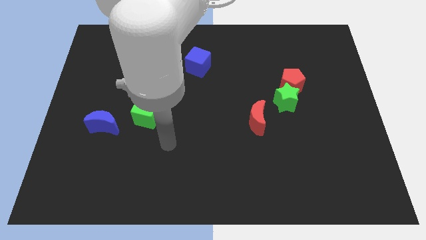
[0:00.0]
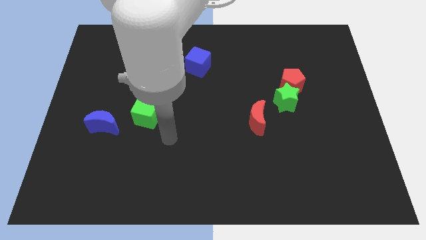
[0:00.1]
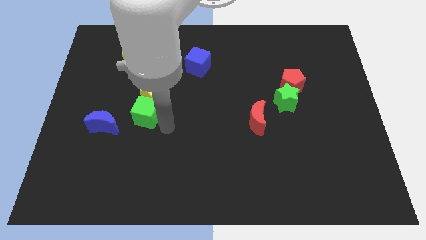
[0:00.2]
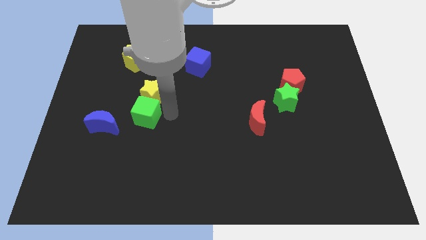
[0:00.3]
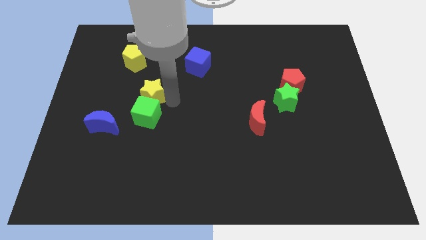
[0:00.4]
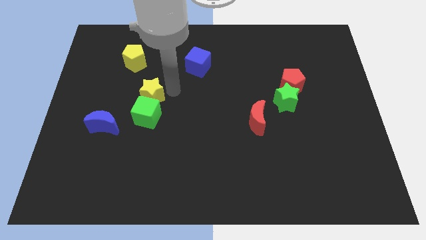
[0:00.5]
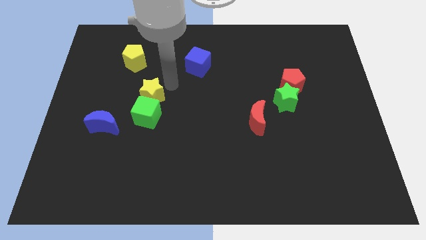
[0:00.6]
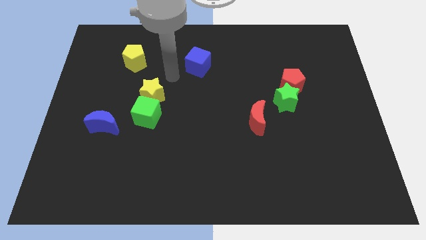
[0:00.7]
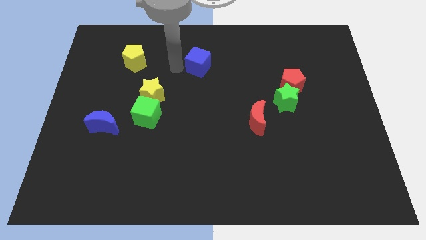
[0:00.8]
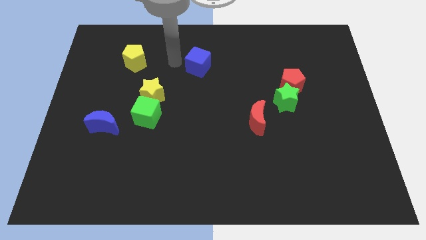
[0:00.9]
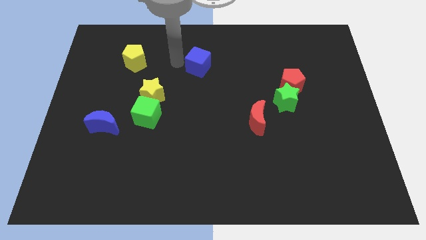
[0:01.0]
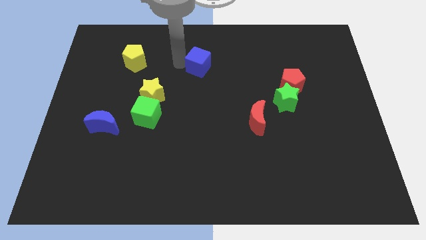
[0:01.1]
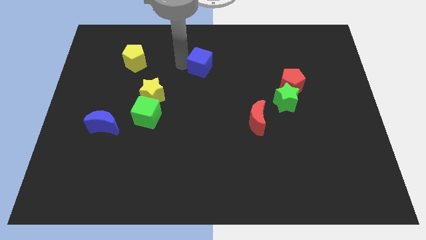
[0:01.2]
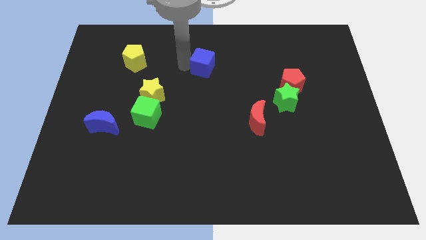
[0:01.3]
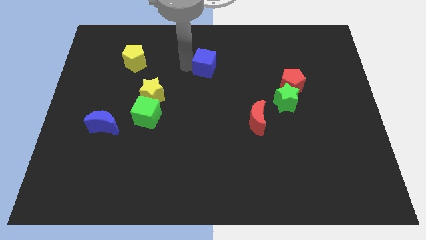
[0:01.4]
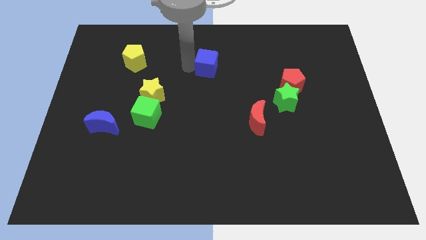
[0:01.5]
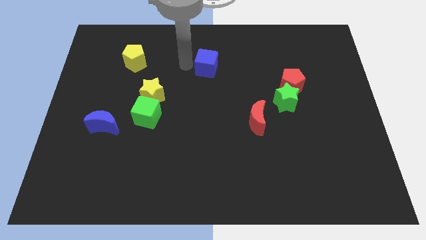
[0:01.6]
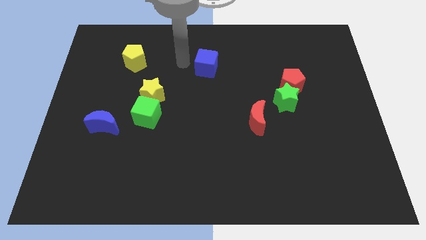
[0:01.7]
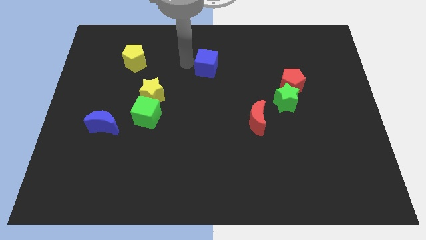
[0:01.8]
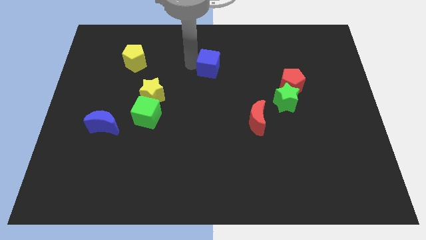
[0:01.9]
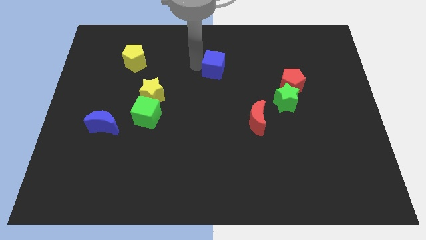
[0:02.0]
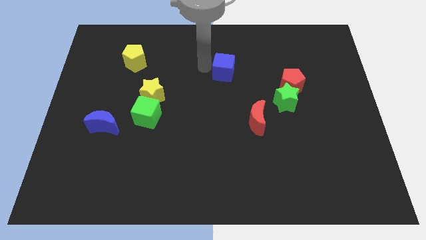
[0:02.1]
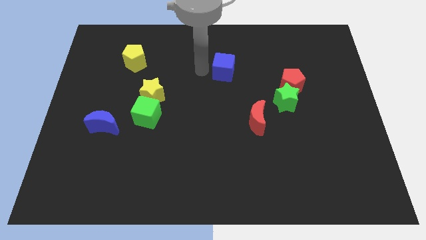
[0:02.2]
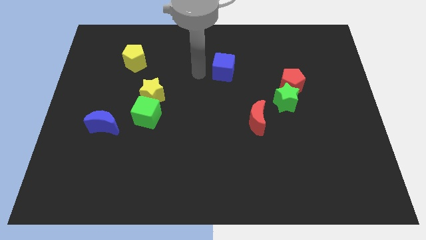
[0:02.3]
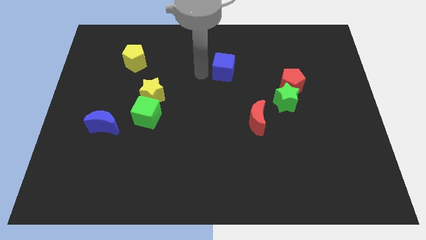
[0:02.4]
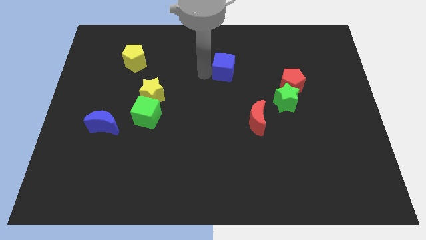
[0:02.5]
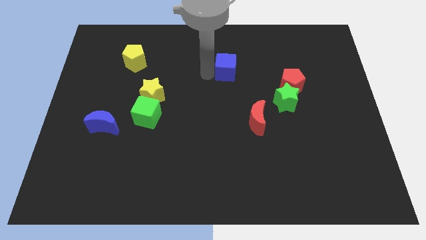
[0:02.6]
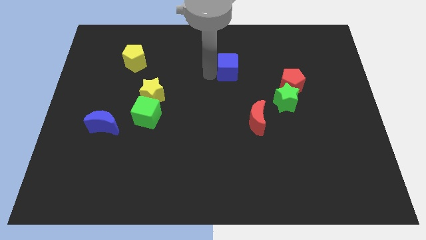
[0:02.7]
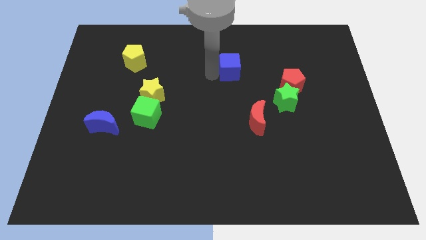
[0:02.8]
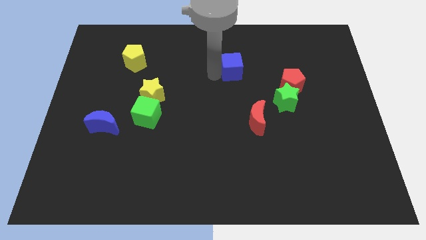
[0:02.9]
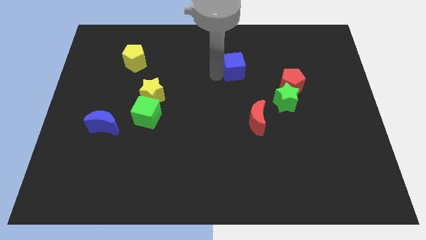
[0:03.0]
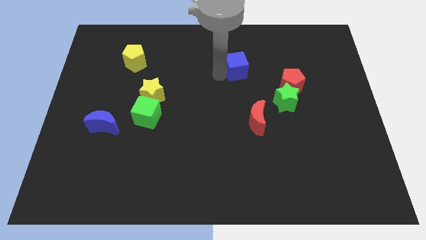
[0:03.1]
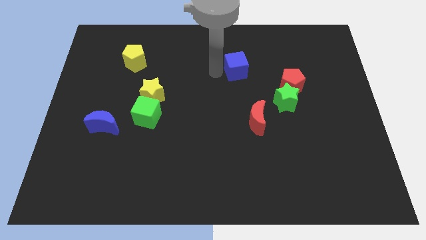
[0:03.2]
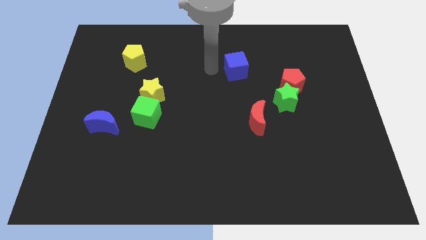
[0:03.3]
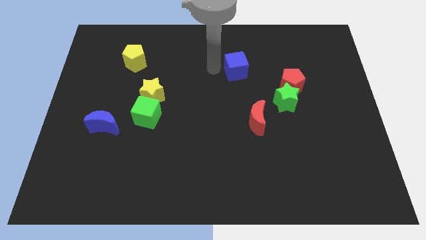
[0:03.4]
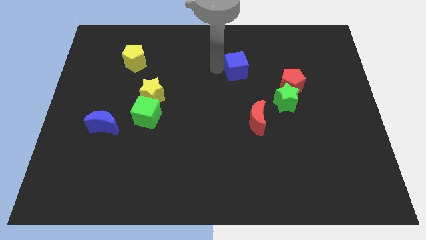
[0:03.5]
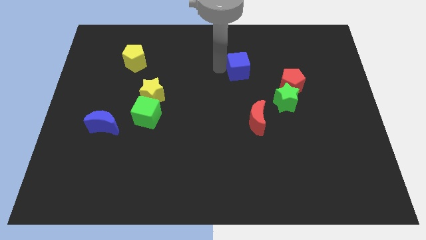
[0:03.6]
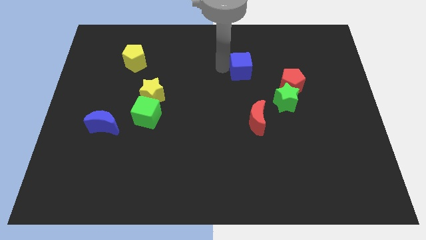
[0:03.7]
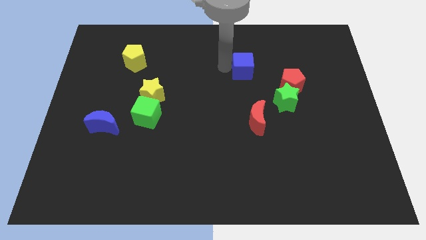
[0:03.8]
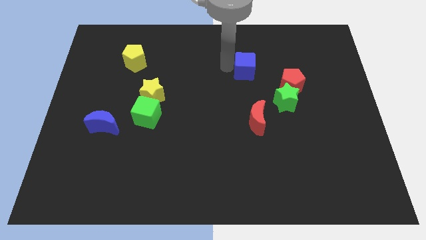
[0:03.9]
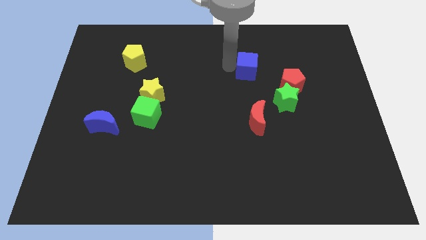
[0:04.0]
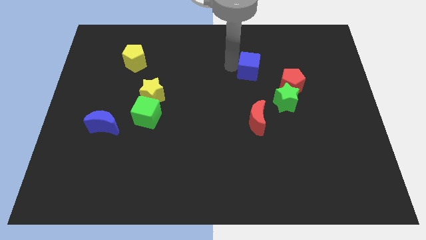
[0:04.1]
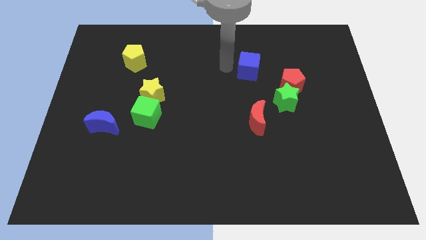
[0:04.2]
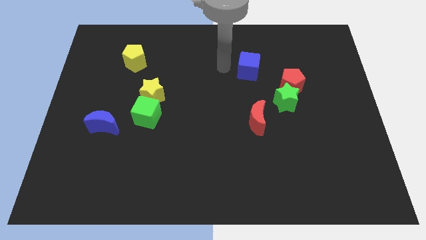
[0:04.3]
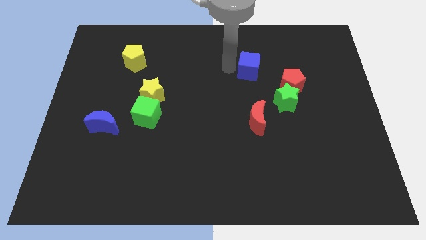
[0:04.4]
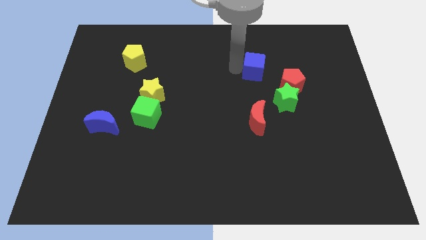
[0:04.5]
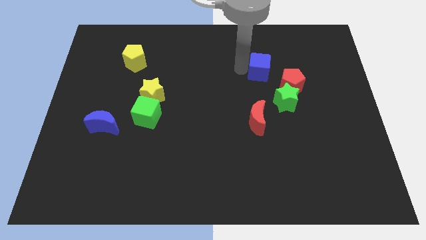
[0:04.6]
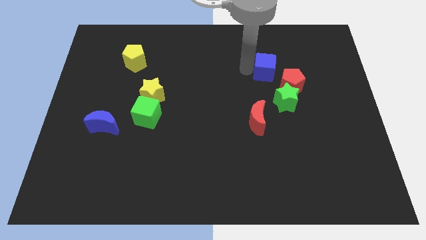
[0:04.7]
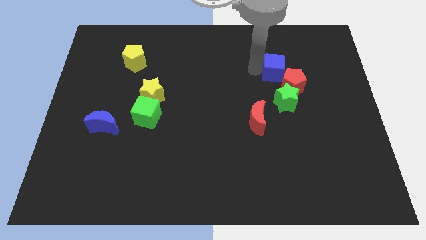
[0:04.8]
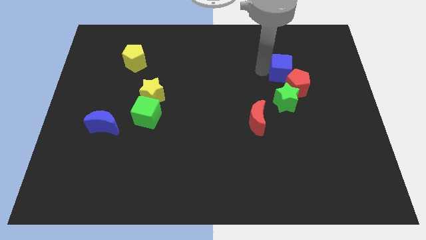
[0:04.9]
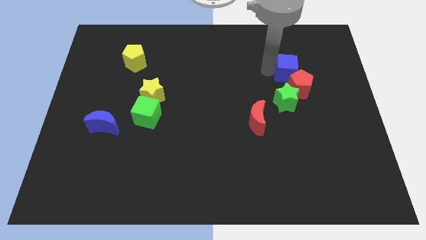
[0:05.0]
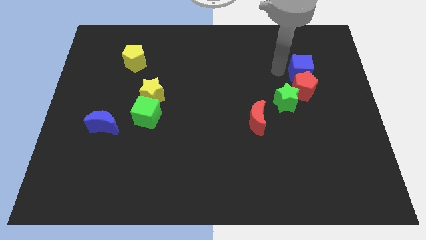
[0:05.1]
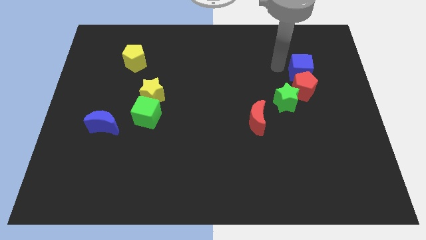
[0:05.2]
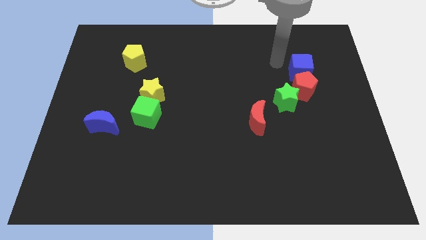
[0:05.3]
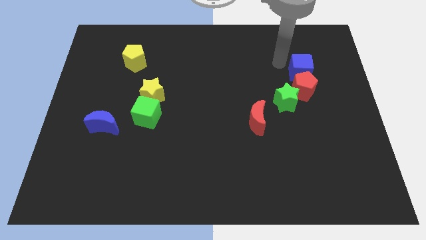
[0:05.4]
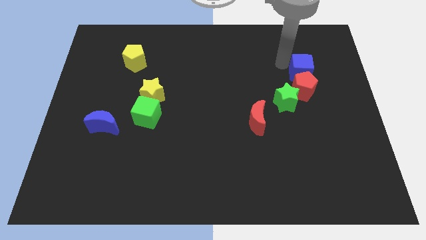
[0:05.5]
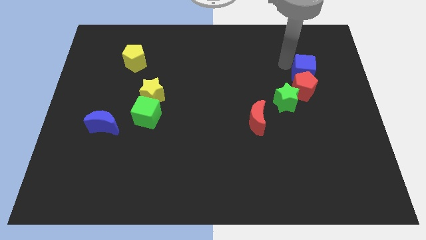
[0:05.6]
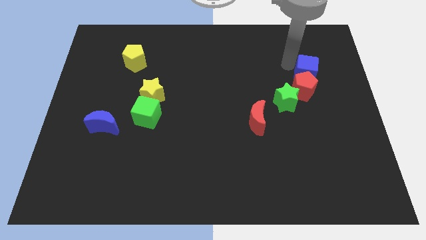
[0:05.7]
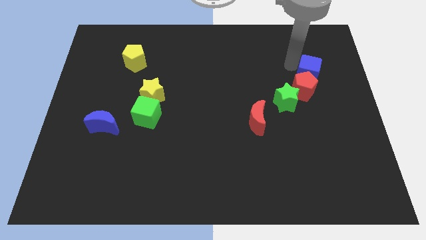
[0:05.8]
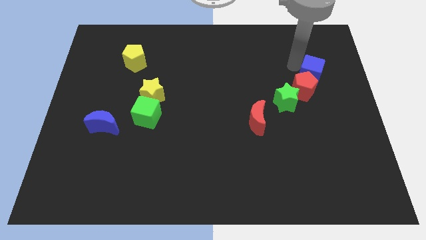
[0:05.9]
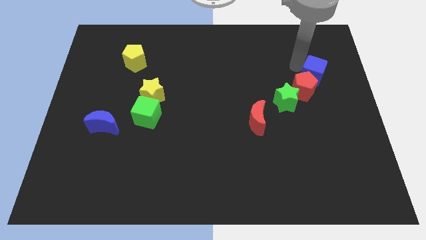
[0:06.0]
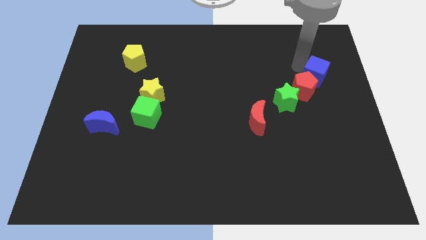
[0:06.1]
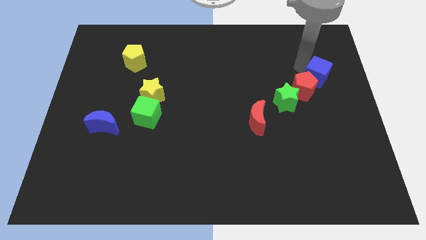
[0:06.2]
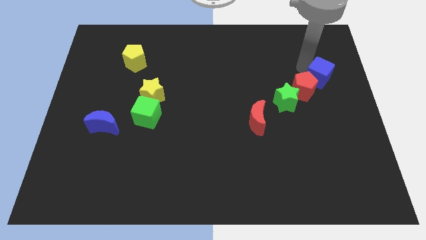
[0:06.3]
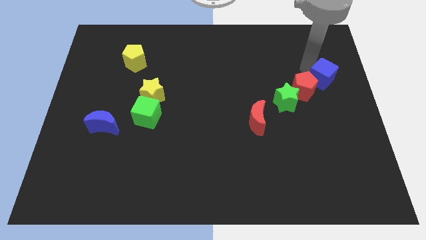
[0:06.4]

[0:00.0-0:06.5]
move the blue cube to the right side of the board
